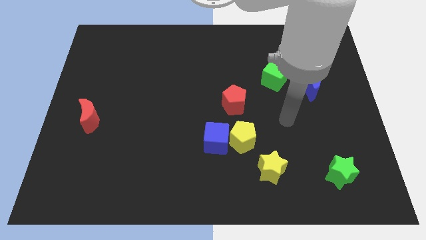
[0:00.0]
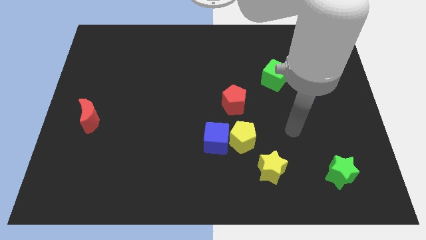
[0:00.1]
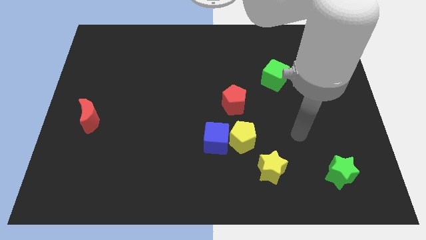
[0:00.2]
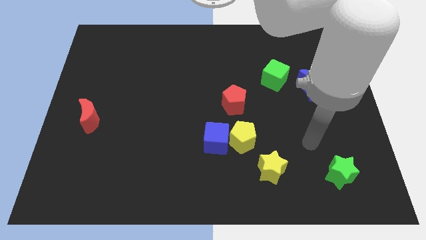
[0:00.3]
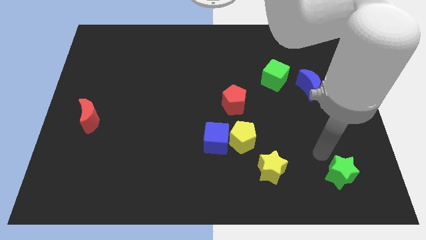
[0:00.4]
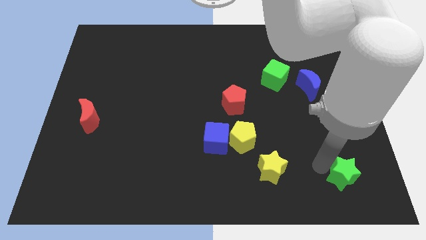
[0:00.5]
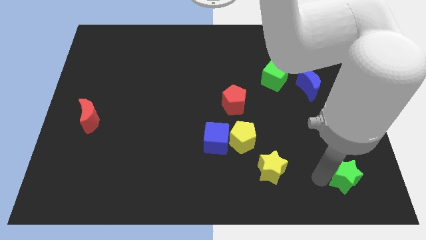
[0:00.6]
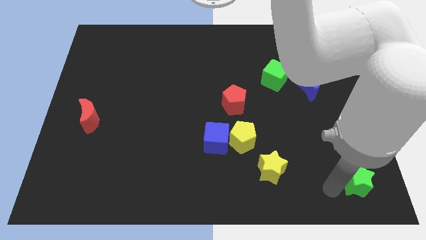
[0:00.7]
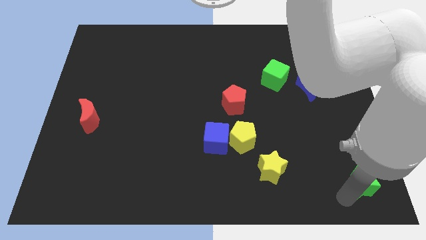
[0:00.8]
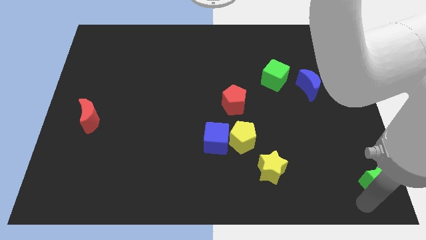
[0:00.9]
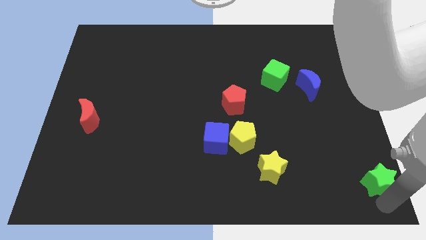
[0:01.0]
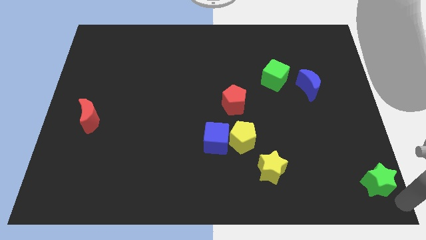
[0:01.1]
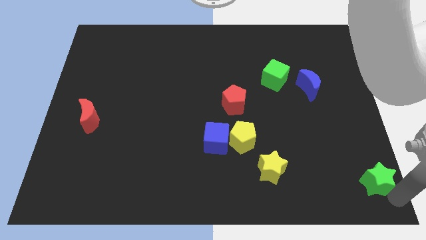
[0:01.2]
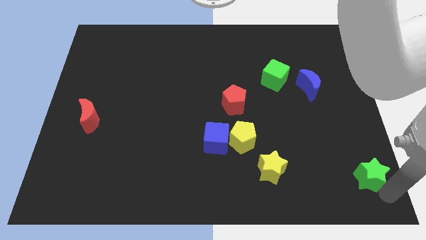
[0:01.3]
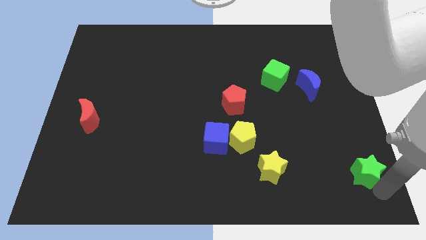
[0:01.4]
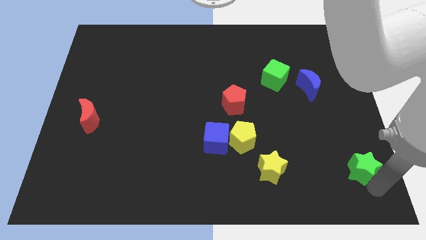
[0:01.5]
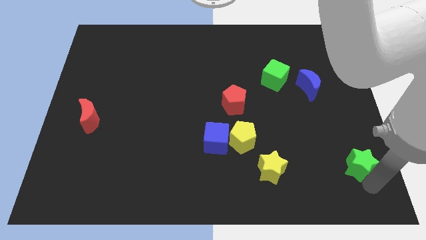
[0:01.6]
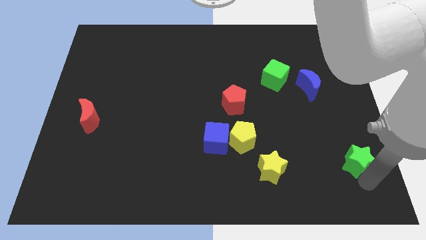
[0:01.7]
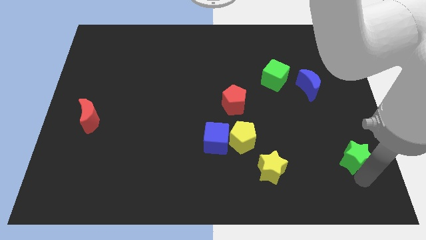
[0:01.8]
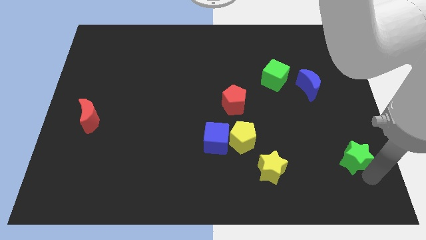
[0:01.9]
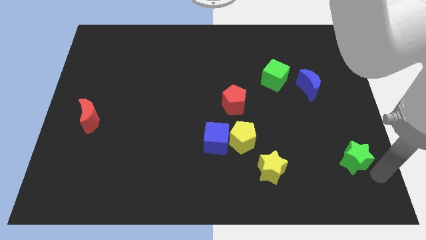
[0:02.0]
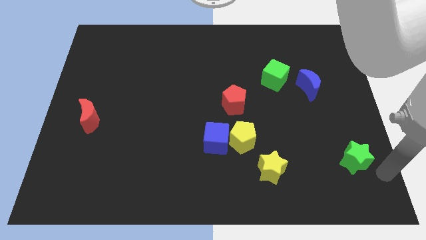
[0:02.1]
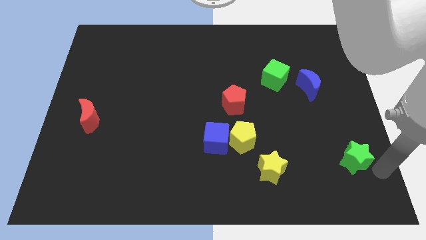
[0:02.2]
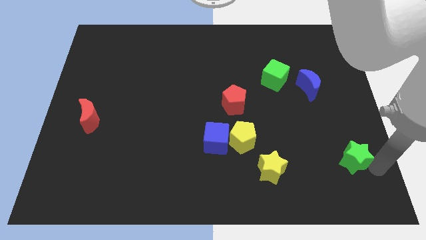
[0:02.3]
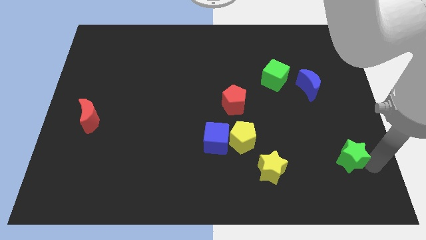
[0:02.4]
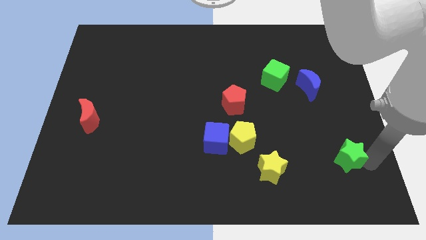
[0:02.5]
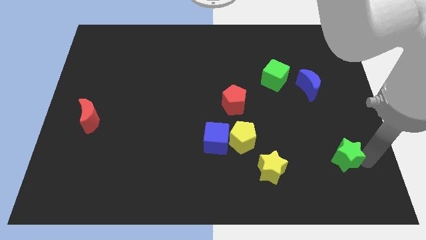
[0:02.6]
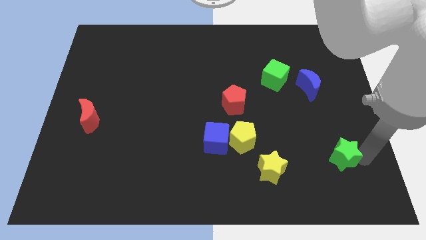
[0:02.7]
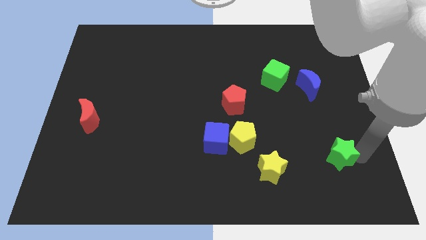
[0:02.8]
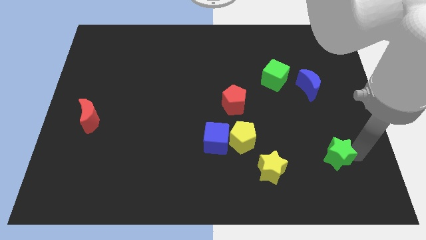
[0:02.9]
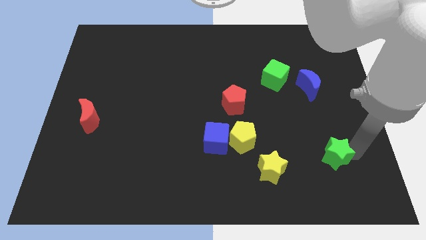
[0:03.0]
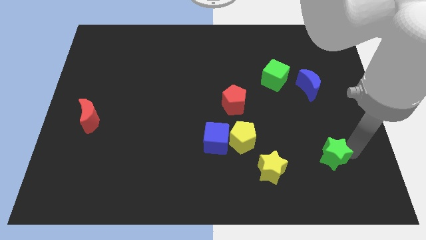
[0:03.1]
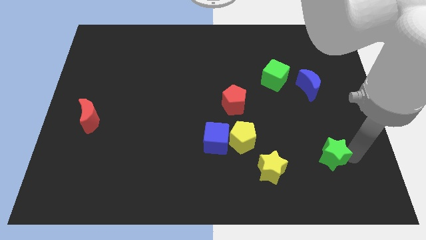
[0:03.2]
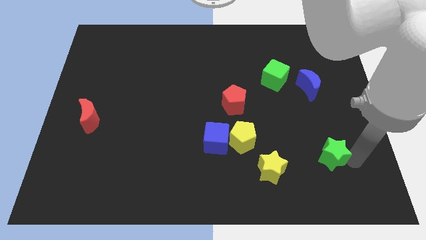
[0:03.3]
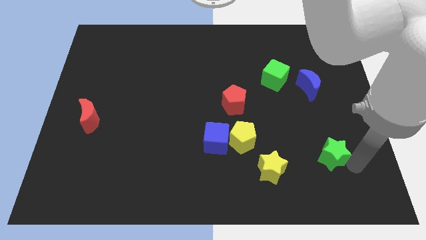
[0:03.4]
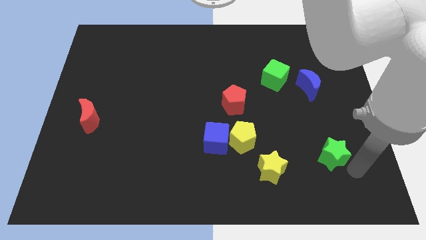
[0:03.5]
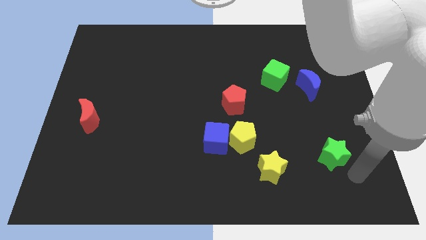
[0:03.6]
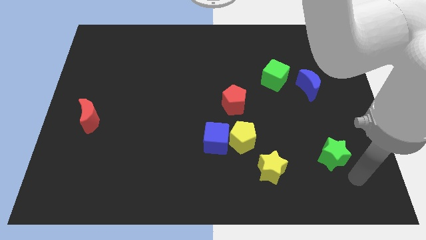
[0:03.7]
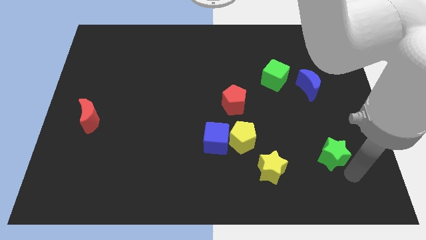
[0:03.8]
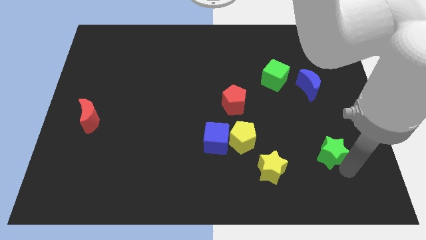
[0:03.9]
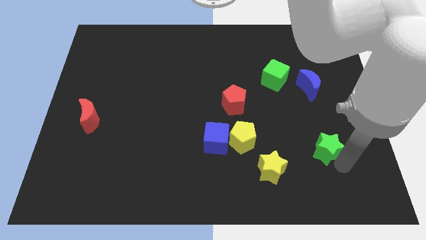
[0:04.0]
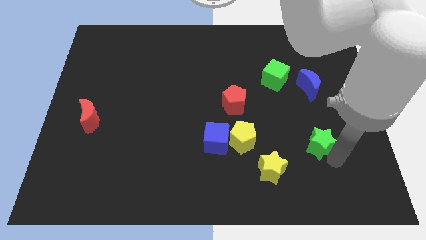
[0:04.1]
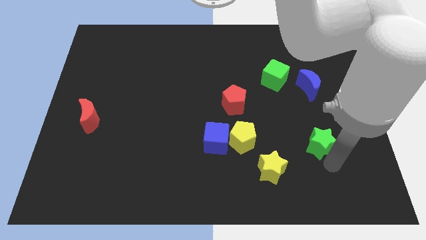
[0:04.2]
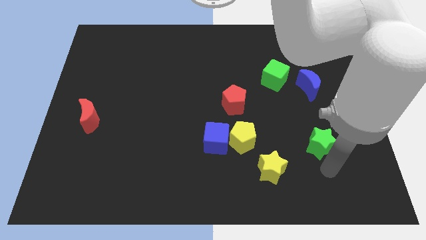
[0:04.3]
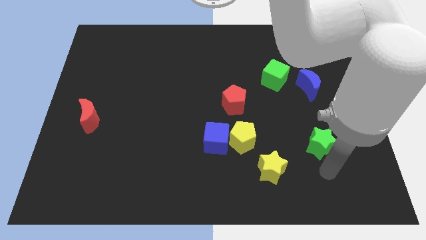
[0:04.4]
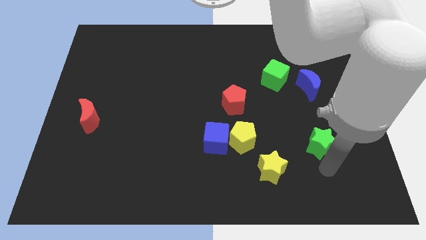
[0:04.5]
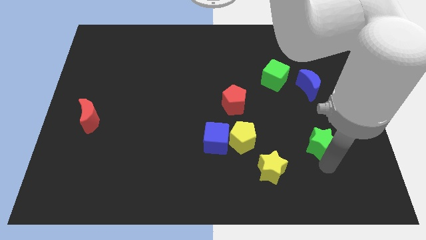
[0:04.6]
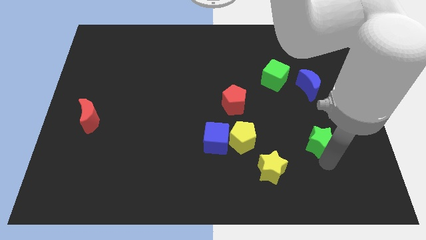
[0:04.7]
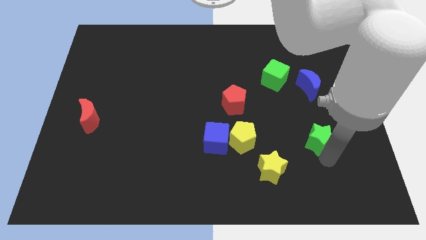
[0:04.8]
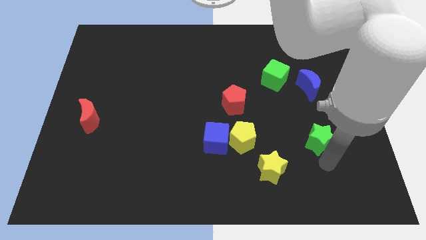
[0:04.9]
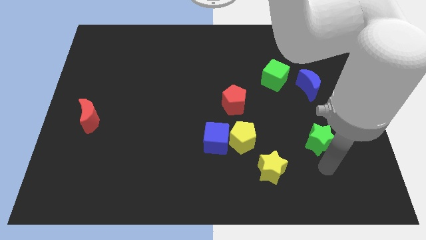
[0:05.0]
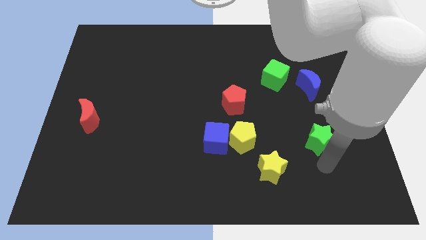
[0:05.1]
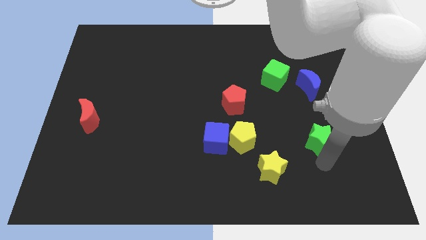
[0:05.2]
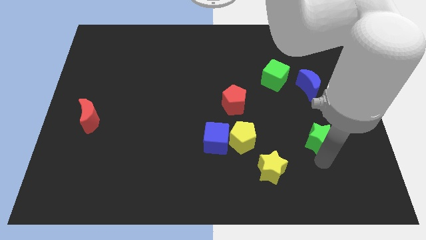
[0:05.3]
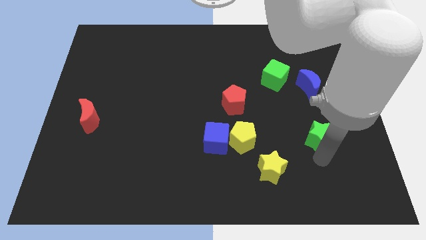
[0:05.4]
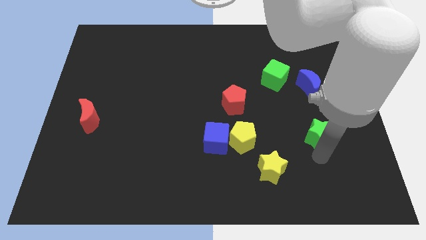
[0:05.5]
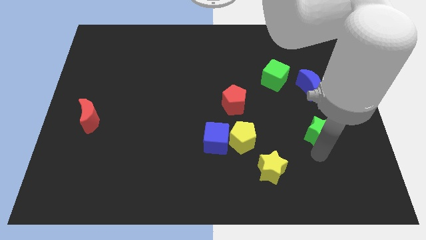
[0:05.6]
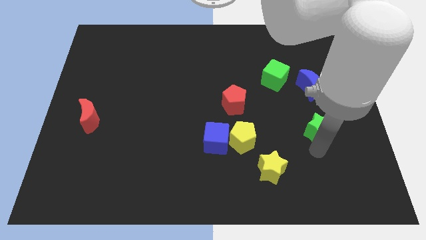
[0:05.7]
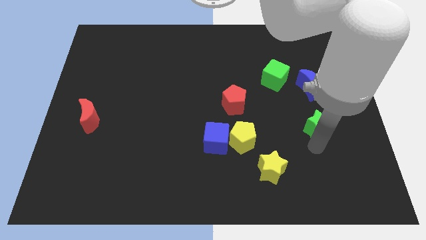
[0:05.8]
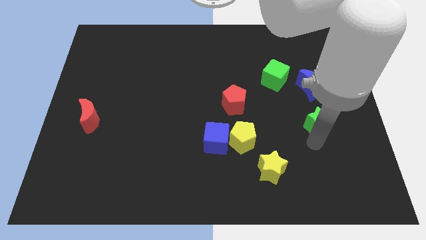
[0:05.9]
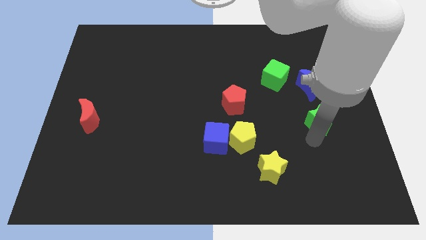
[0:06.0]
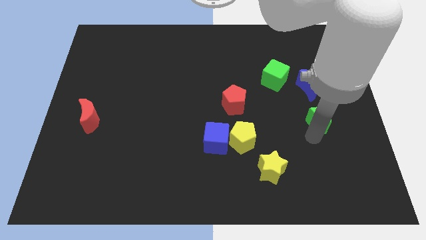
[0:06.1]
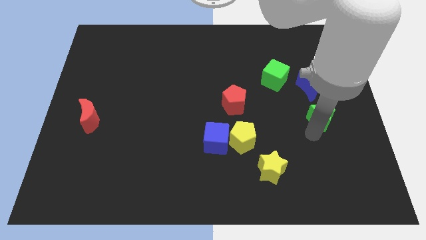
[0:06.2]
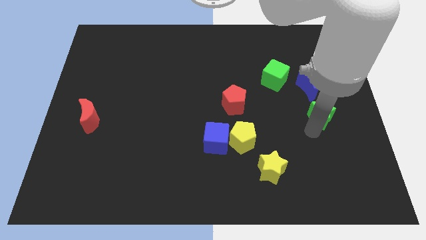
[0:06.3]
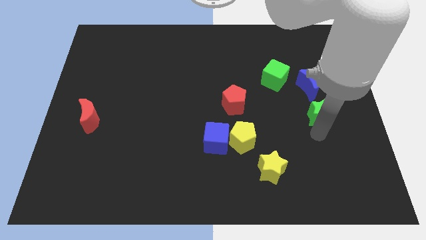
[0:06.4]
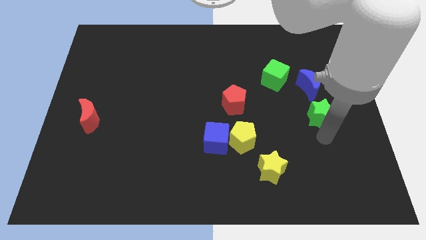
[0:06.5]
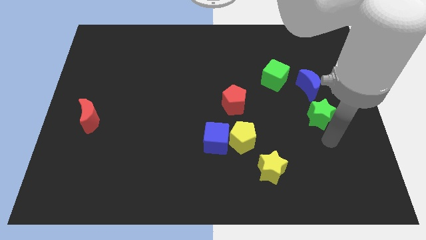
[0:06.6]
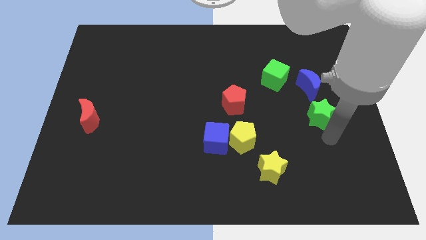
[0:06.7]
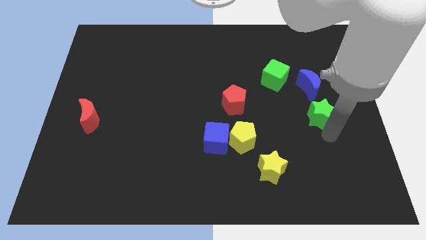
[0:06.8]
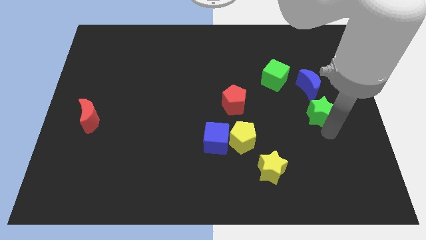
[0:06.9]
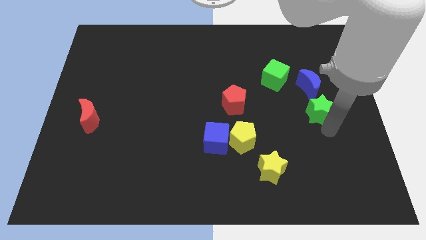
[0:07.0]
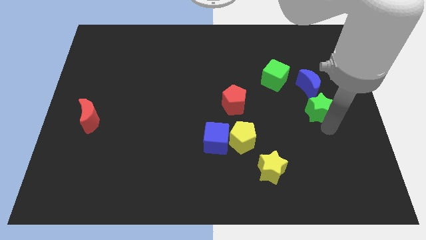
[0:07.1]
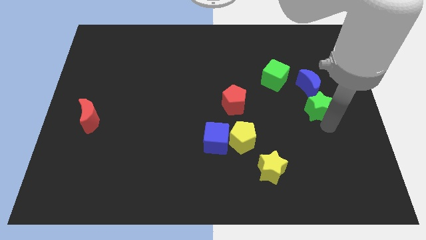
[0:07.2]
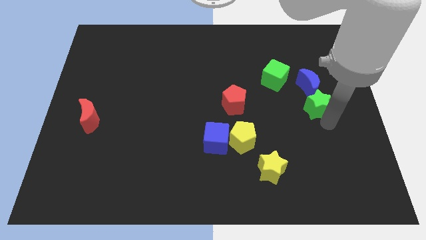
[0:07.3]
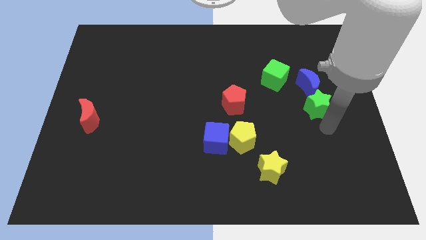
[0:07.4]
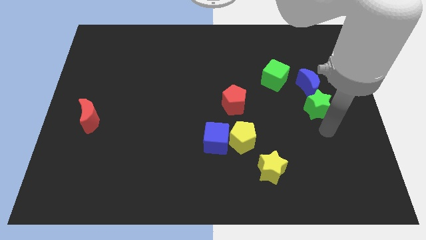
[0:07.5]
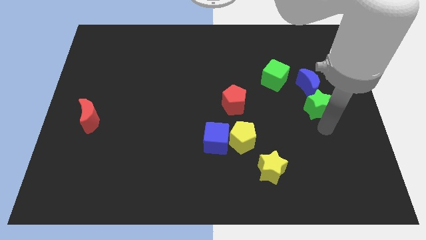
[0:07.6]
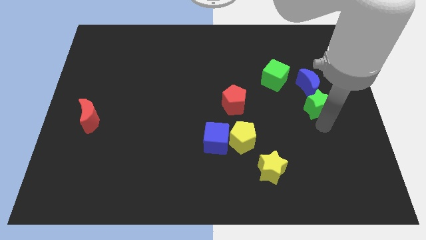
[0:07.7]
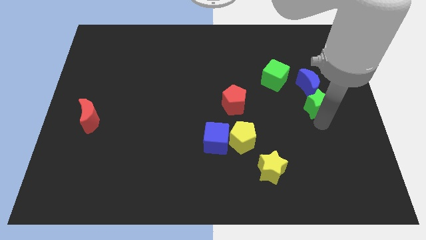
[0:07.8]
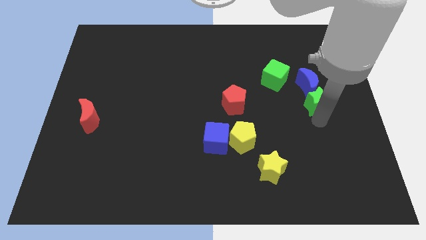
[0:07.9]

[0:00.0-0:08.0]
move the green star to the blue moon
